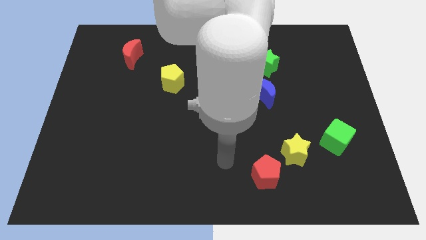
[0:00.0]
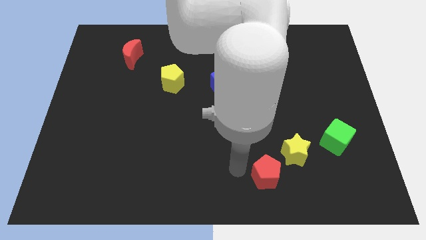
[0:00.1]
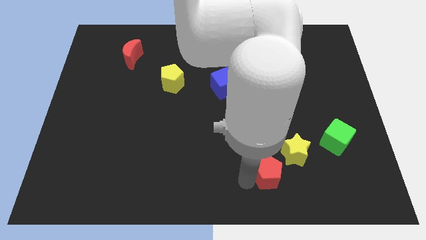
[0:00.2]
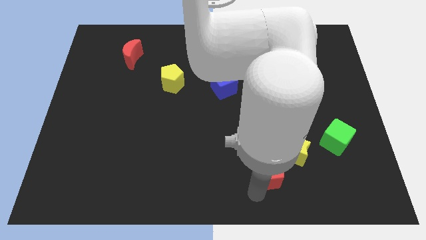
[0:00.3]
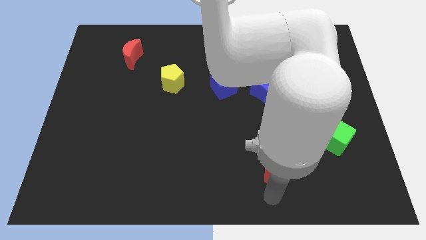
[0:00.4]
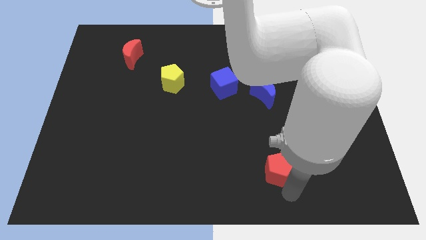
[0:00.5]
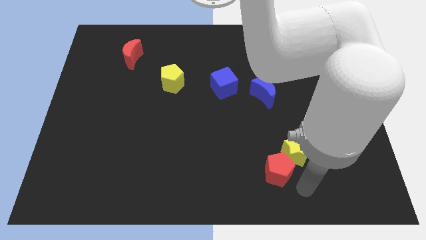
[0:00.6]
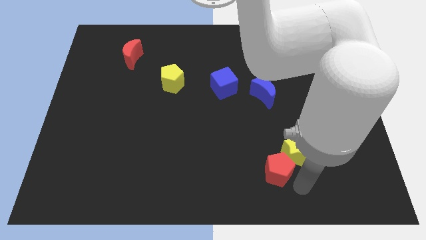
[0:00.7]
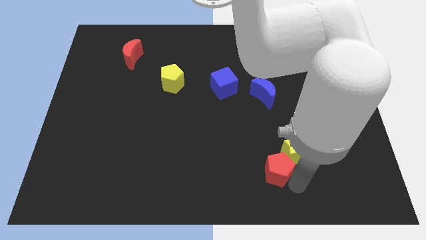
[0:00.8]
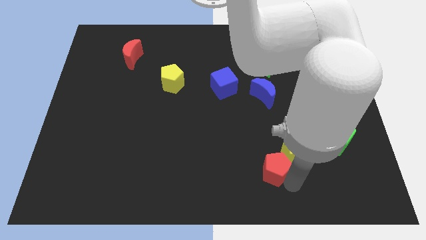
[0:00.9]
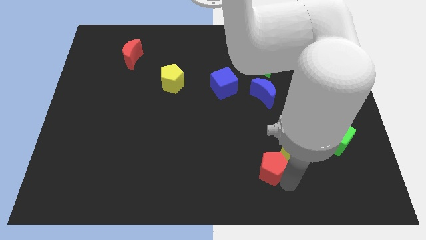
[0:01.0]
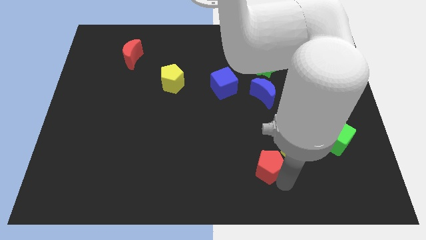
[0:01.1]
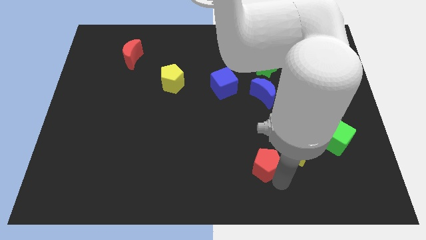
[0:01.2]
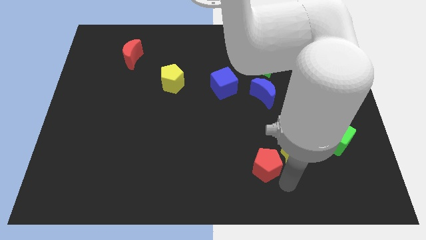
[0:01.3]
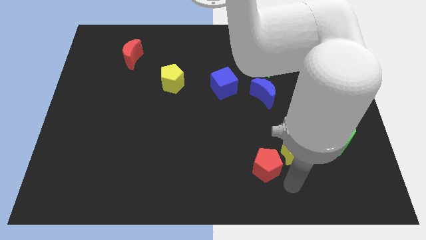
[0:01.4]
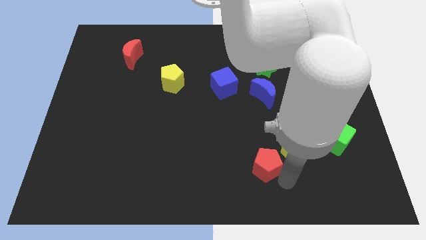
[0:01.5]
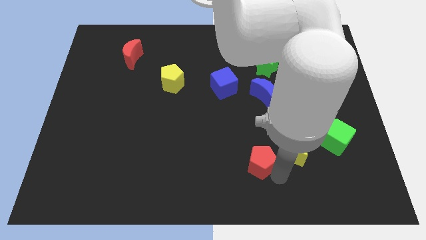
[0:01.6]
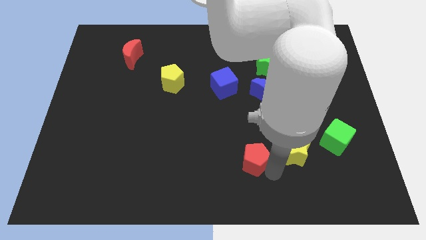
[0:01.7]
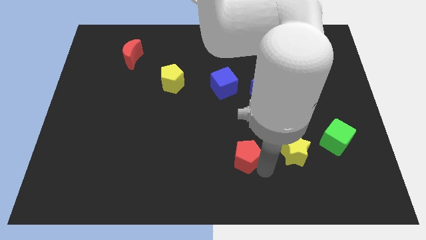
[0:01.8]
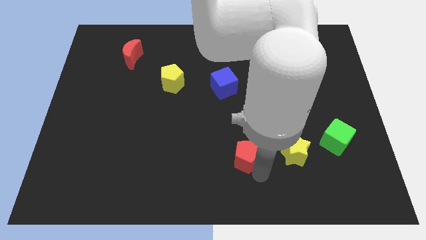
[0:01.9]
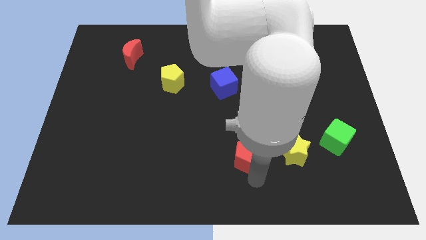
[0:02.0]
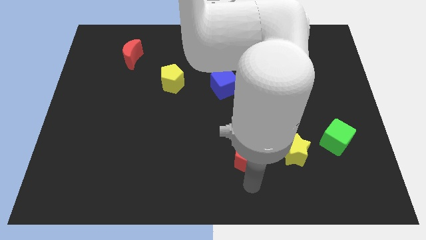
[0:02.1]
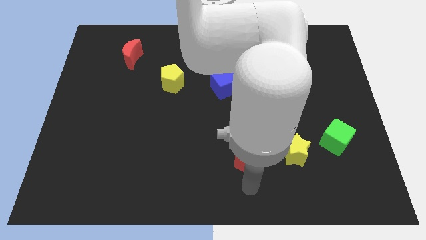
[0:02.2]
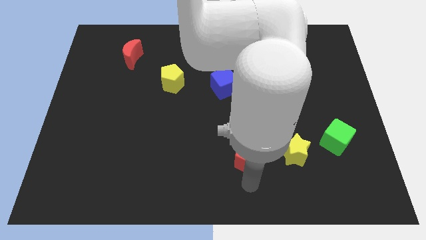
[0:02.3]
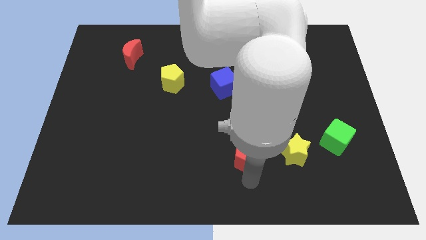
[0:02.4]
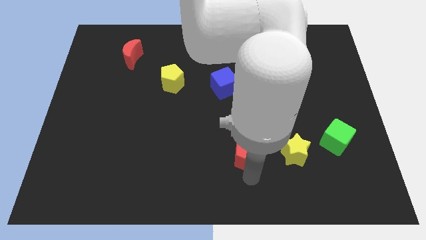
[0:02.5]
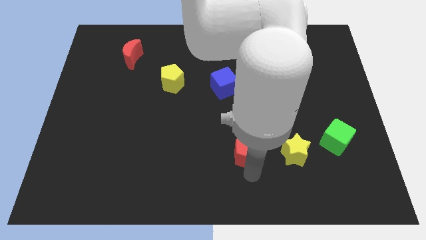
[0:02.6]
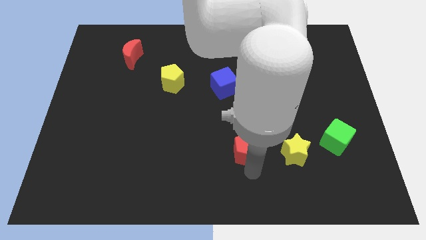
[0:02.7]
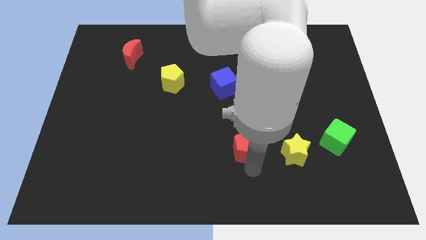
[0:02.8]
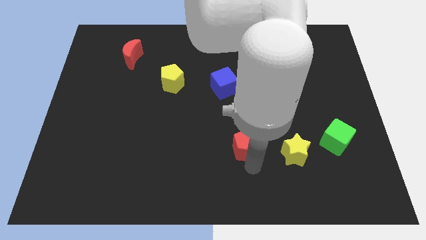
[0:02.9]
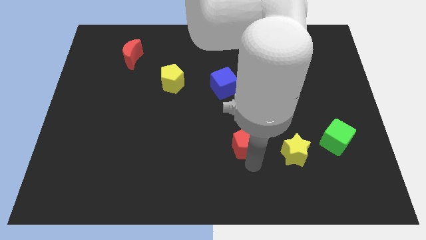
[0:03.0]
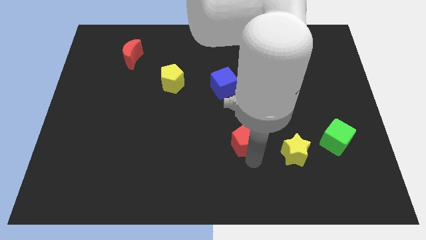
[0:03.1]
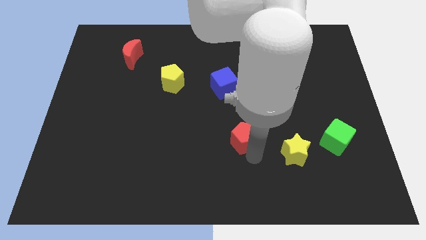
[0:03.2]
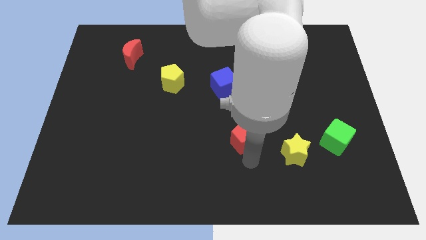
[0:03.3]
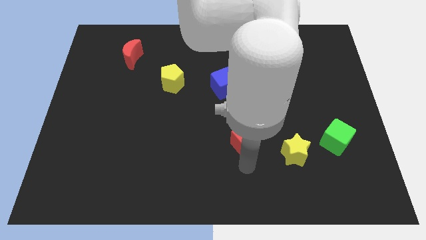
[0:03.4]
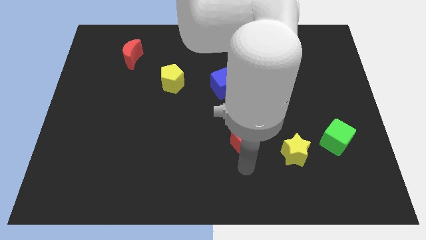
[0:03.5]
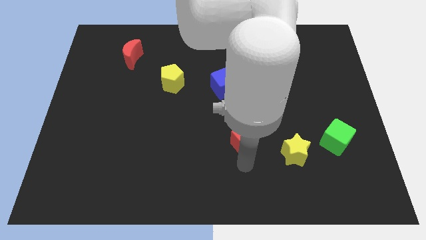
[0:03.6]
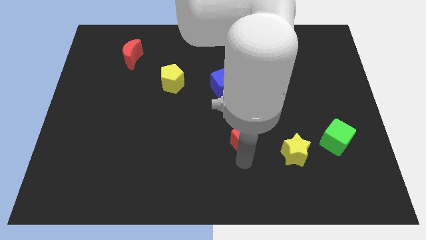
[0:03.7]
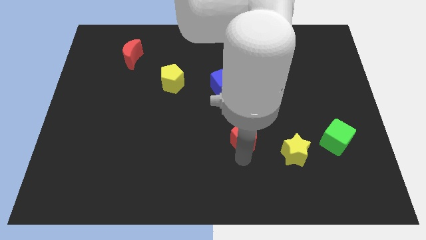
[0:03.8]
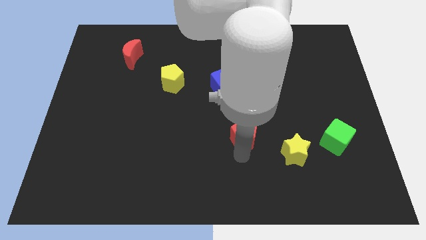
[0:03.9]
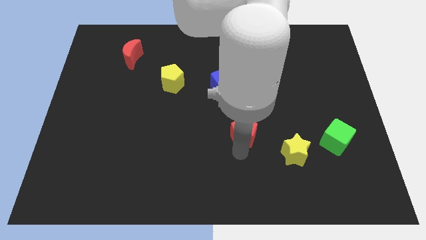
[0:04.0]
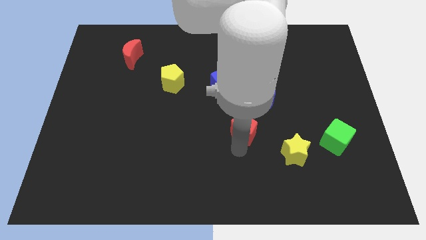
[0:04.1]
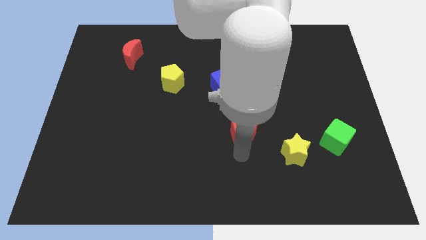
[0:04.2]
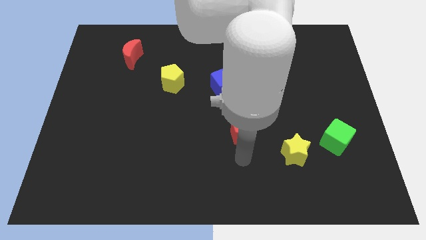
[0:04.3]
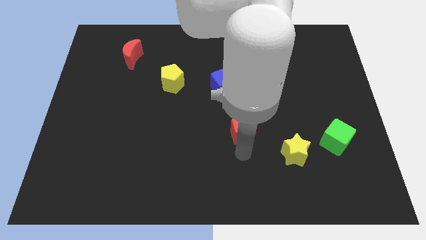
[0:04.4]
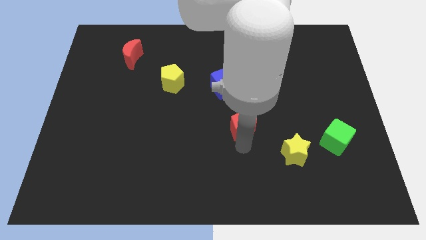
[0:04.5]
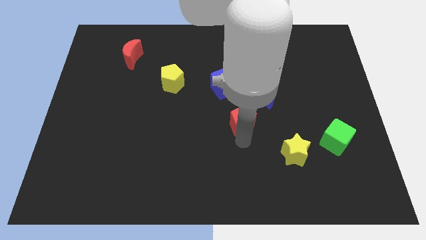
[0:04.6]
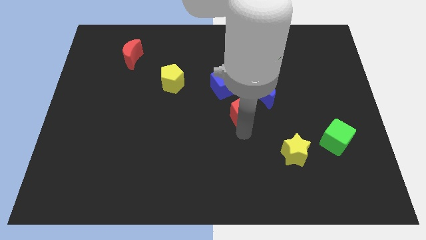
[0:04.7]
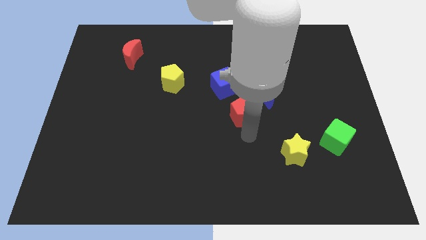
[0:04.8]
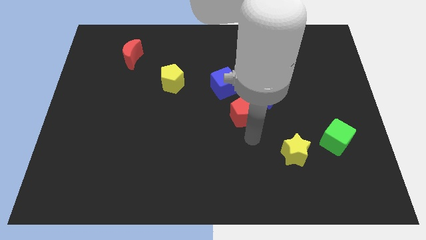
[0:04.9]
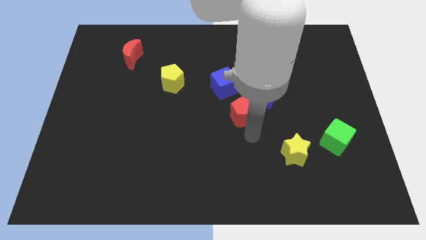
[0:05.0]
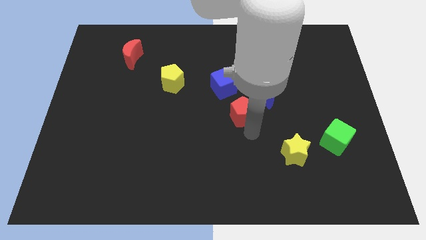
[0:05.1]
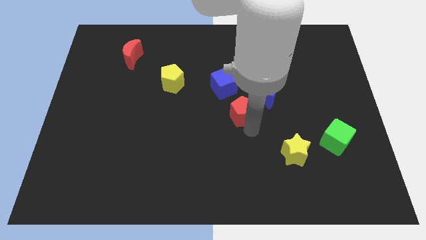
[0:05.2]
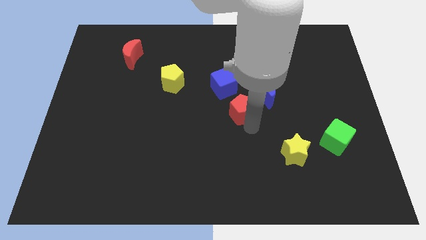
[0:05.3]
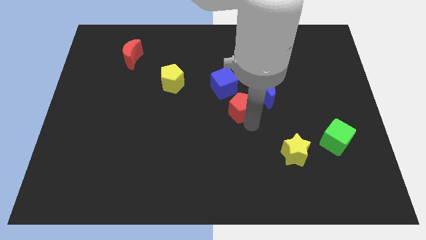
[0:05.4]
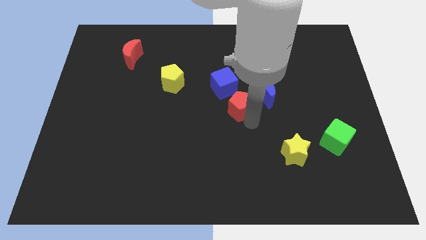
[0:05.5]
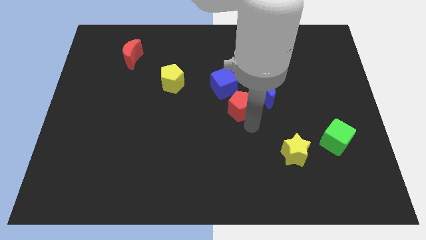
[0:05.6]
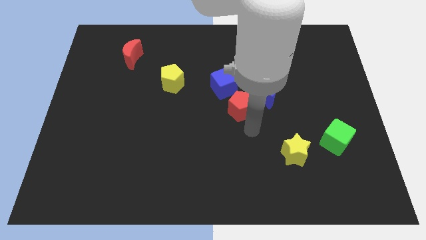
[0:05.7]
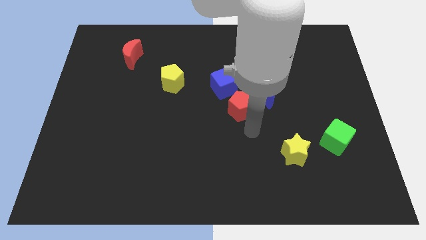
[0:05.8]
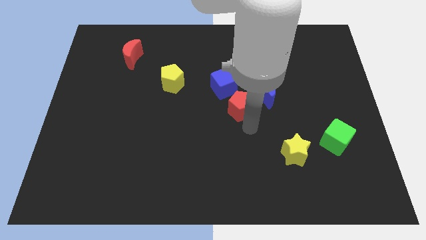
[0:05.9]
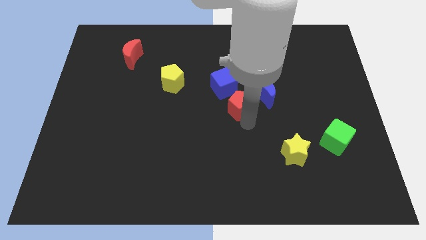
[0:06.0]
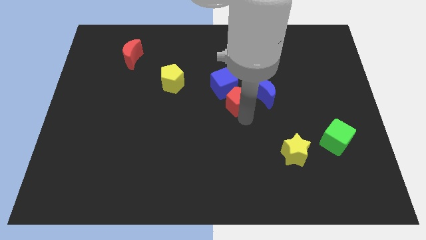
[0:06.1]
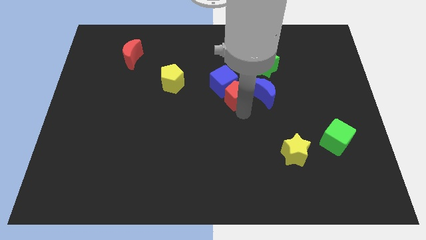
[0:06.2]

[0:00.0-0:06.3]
move the red pentagon next to the blue cube

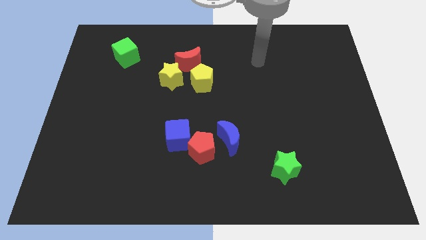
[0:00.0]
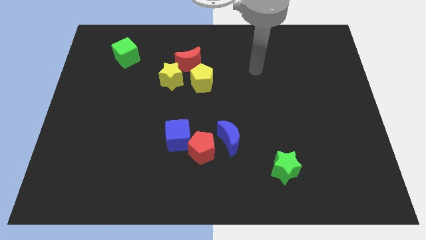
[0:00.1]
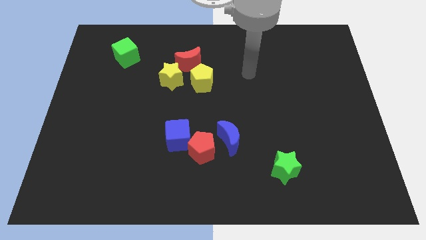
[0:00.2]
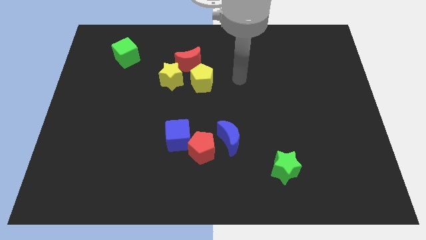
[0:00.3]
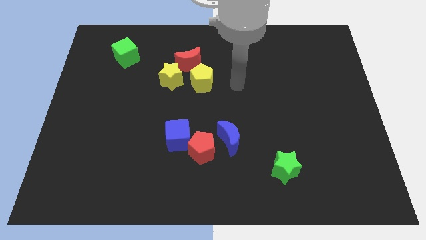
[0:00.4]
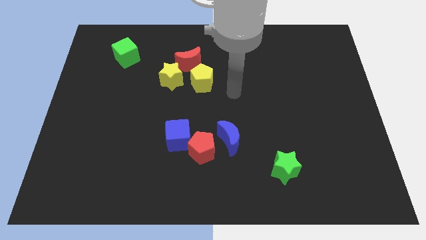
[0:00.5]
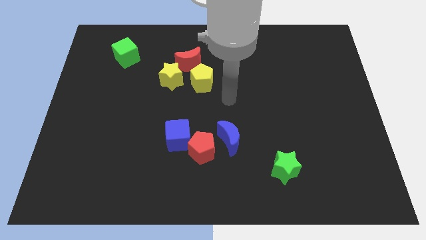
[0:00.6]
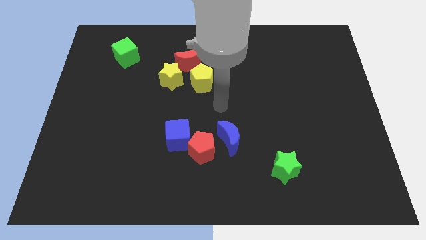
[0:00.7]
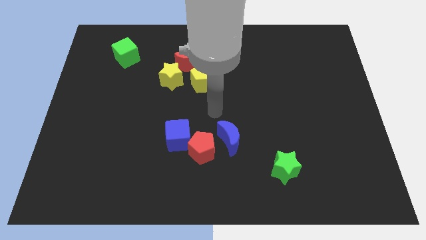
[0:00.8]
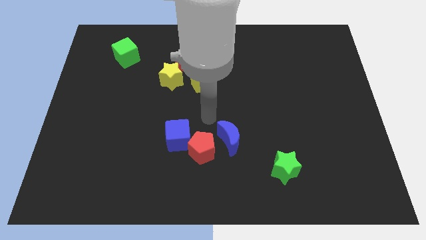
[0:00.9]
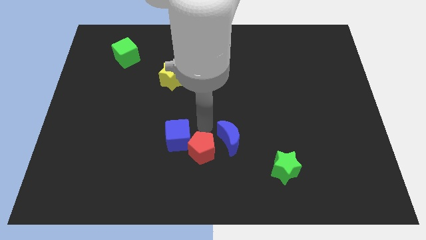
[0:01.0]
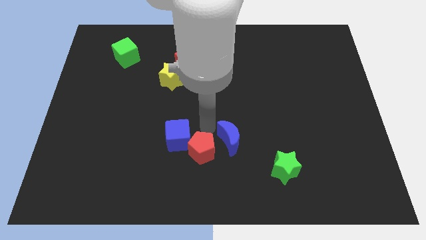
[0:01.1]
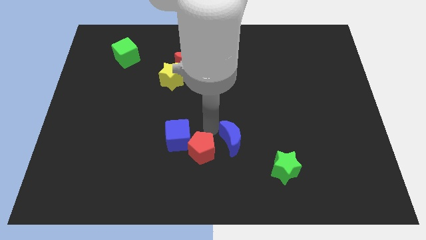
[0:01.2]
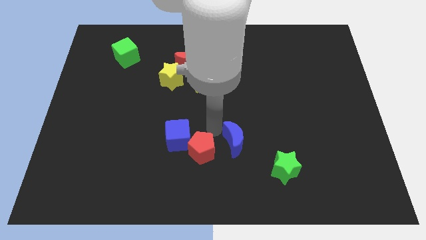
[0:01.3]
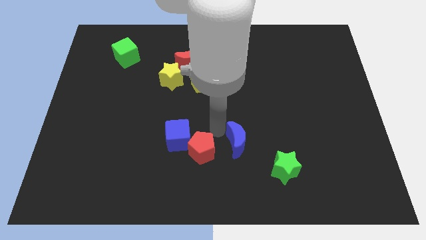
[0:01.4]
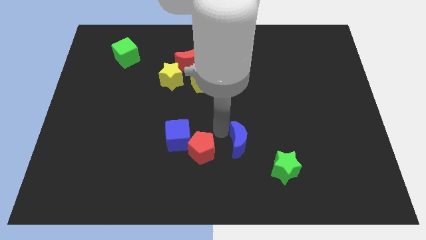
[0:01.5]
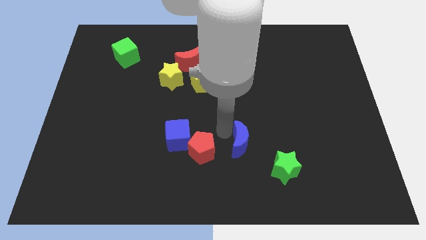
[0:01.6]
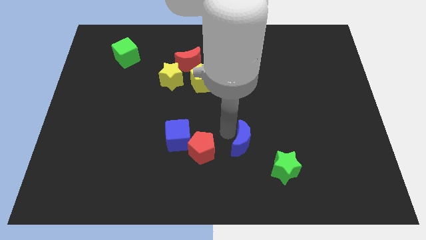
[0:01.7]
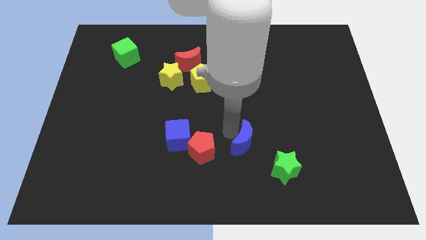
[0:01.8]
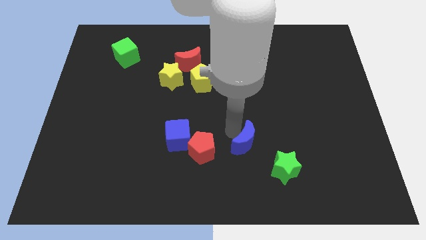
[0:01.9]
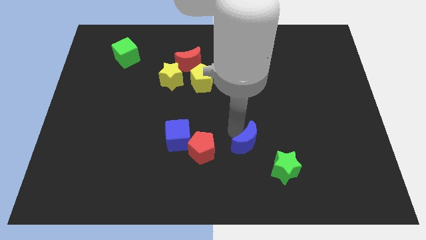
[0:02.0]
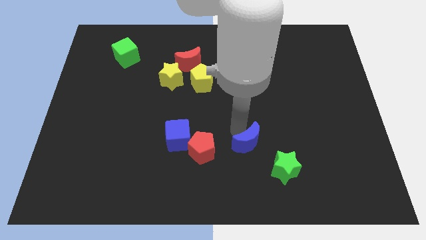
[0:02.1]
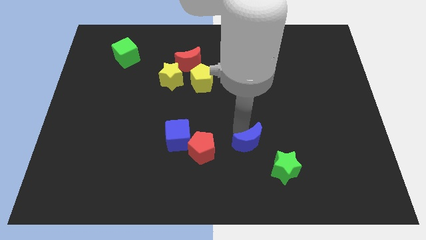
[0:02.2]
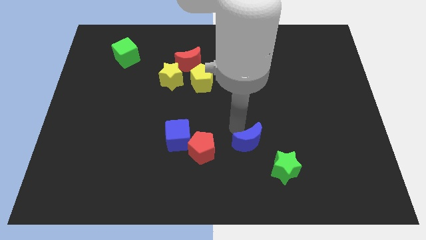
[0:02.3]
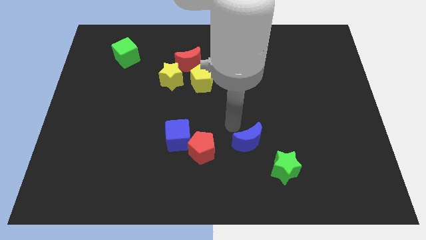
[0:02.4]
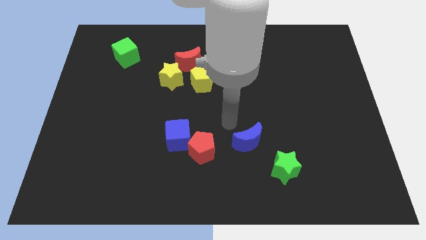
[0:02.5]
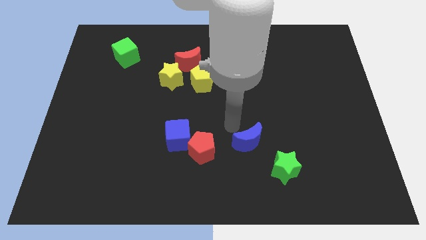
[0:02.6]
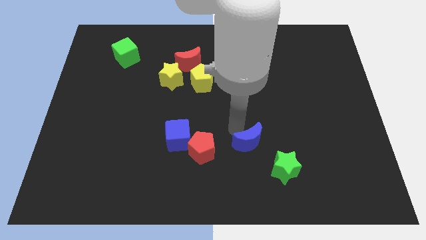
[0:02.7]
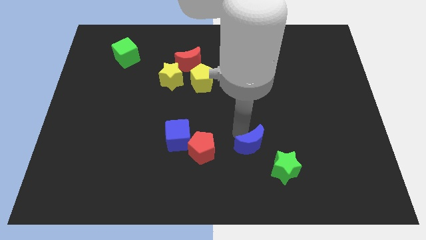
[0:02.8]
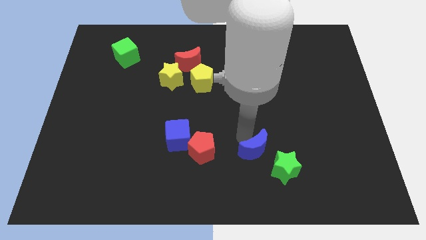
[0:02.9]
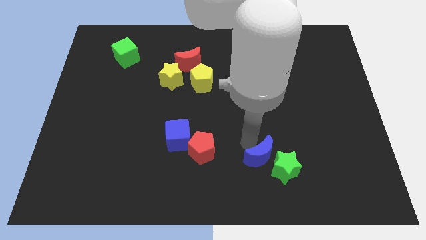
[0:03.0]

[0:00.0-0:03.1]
put the blue moon towards the green star
